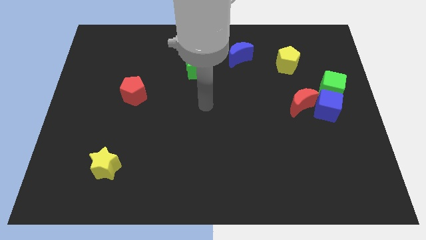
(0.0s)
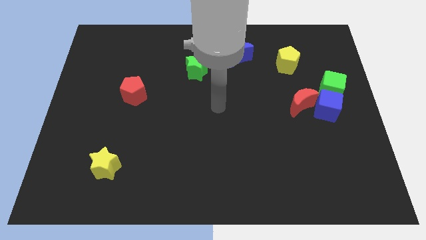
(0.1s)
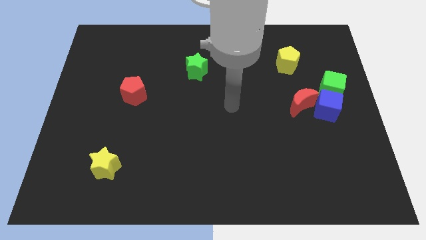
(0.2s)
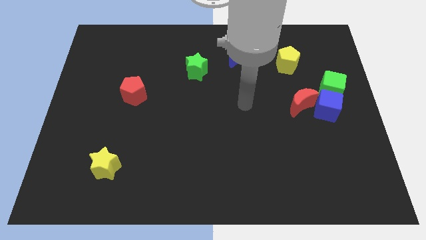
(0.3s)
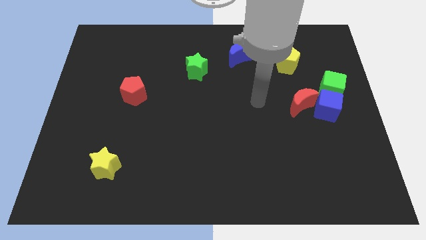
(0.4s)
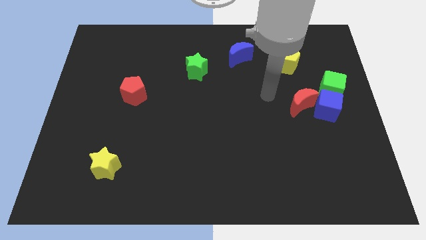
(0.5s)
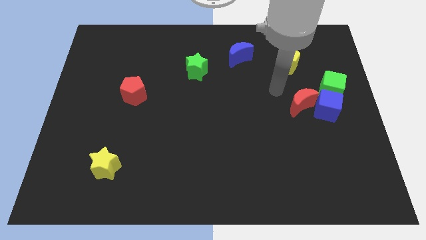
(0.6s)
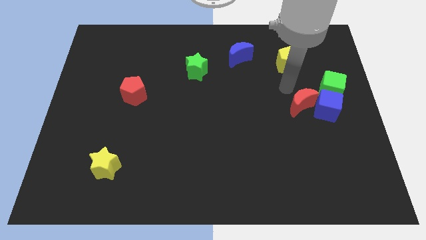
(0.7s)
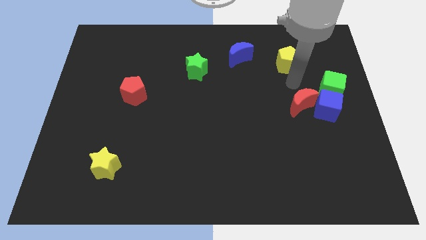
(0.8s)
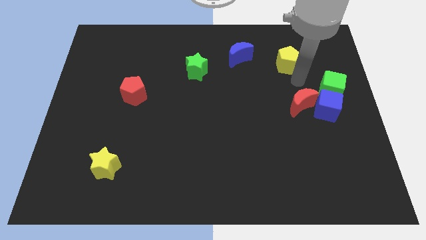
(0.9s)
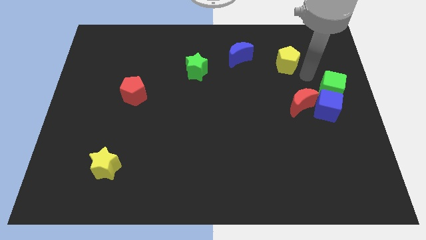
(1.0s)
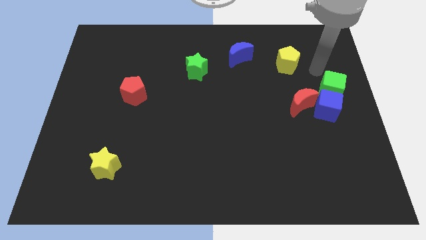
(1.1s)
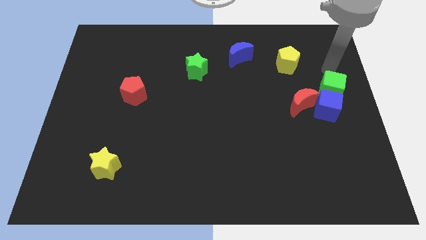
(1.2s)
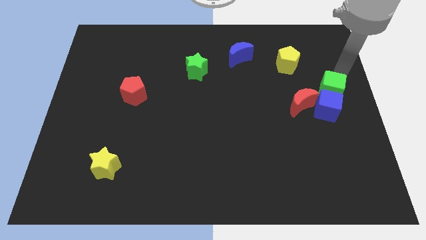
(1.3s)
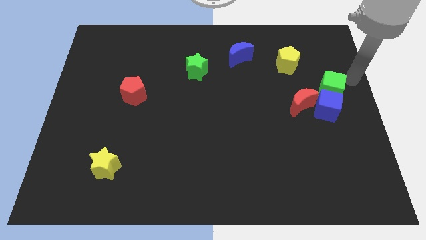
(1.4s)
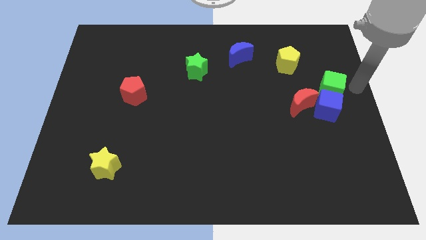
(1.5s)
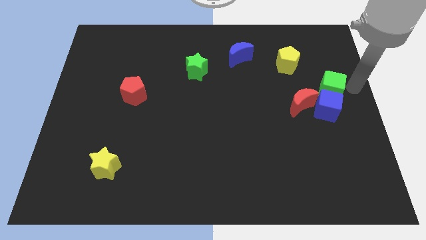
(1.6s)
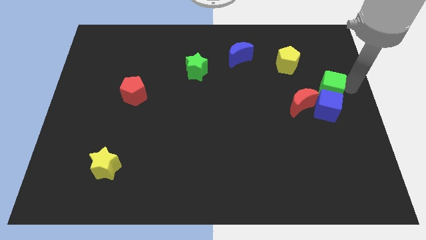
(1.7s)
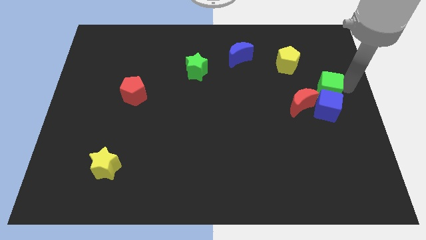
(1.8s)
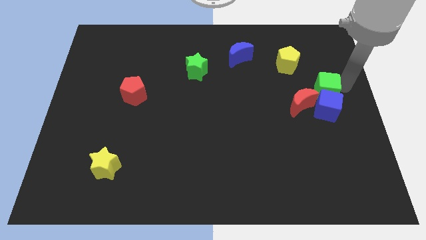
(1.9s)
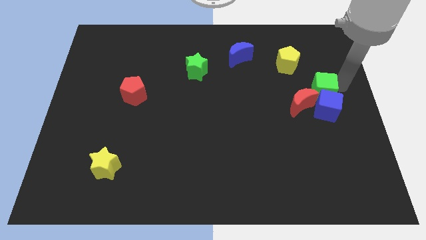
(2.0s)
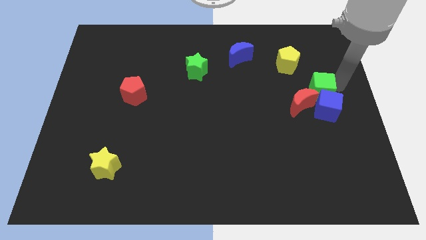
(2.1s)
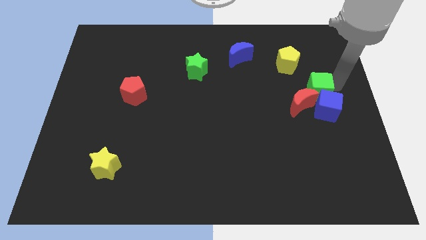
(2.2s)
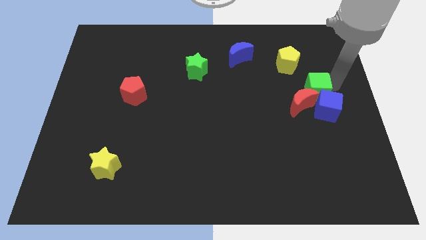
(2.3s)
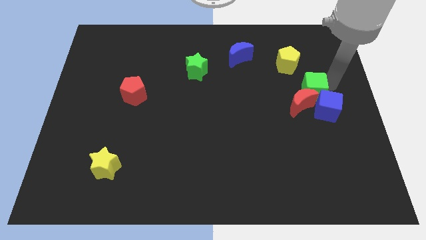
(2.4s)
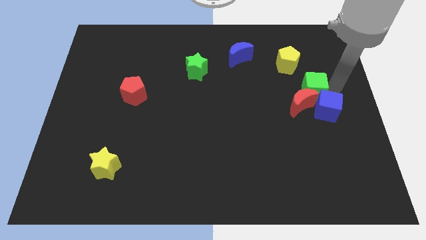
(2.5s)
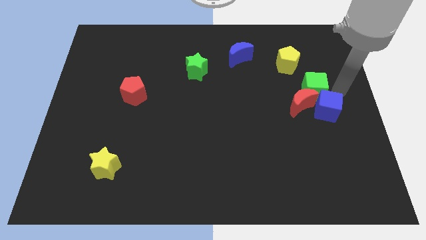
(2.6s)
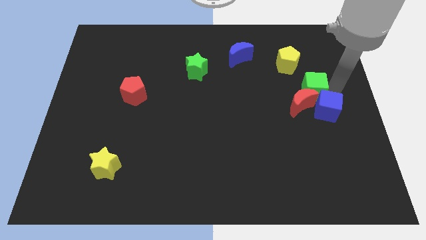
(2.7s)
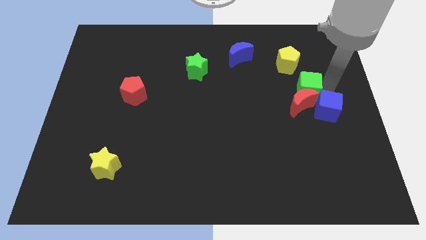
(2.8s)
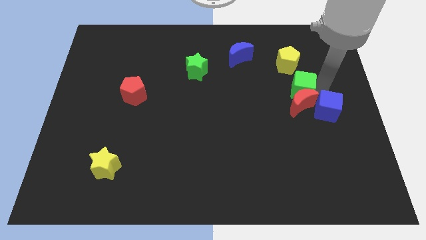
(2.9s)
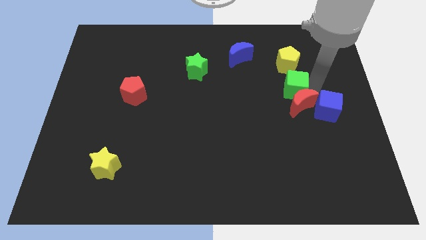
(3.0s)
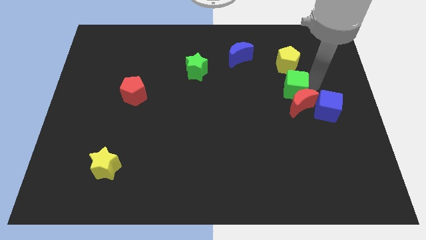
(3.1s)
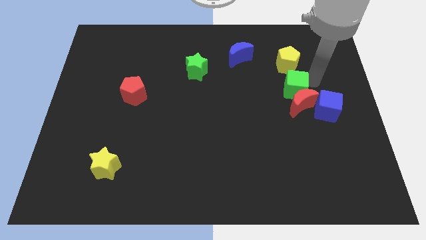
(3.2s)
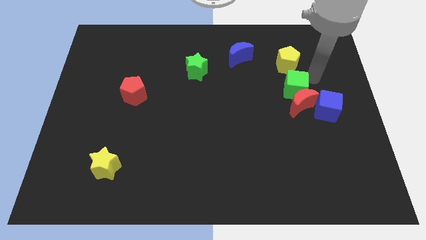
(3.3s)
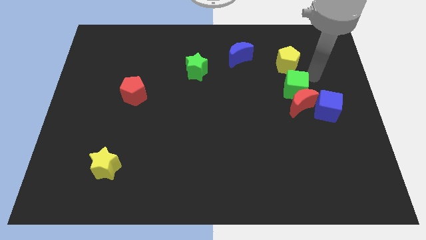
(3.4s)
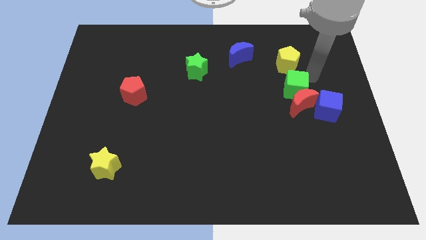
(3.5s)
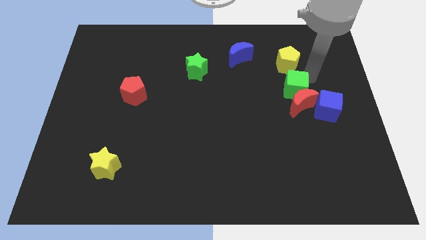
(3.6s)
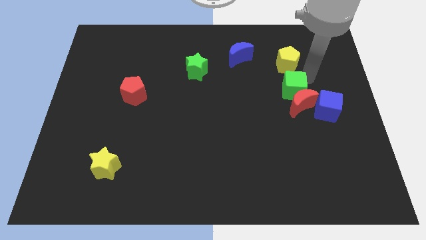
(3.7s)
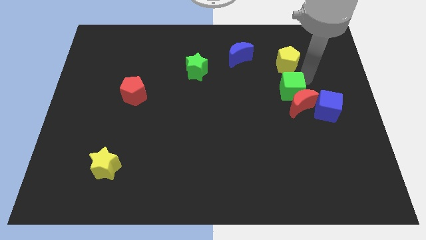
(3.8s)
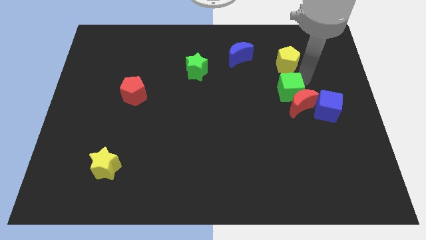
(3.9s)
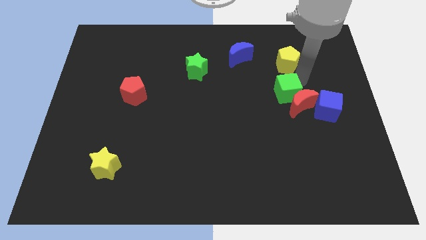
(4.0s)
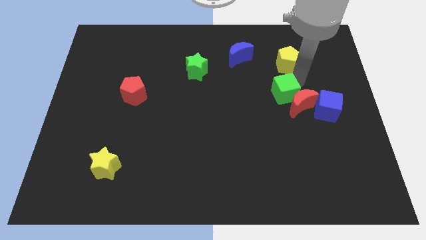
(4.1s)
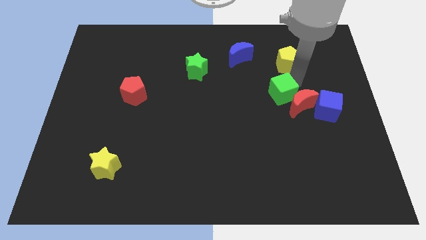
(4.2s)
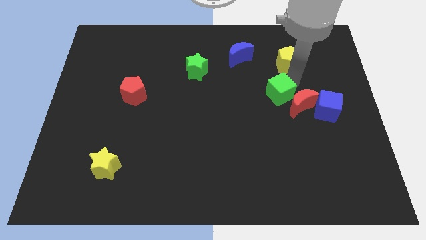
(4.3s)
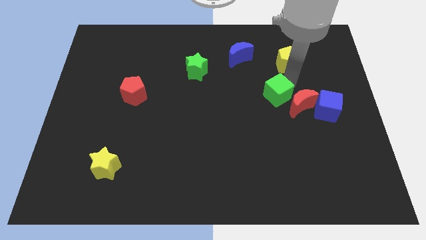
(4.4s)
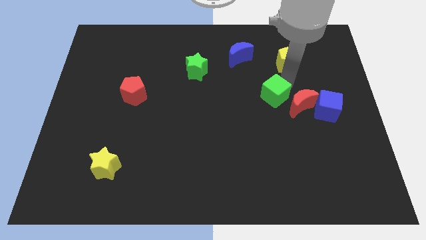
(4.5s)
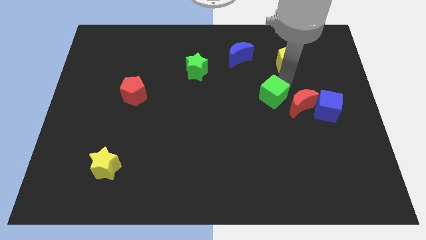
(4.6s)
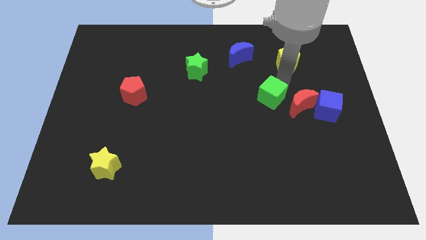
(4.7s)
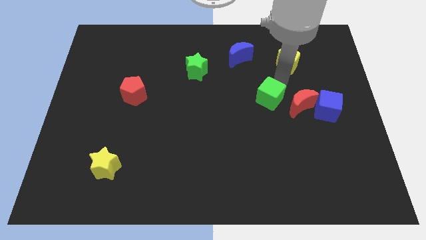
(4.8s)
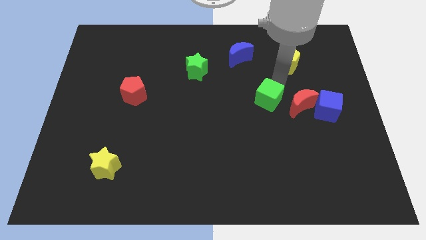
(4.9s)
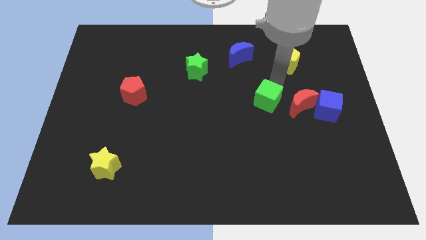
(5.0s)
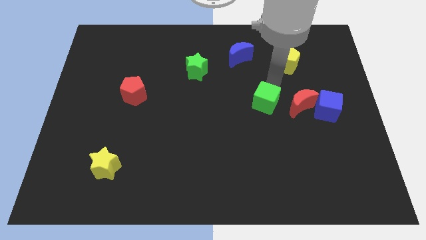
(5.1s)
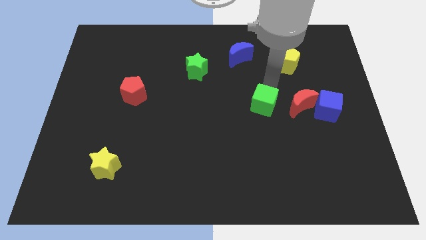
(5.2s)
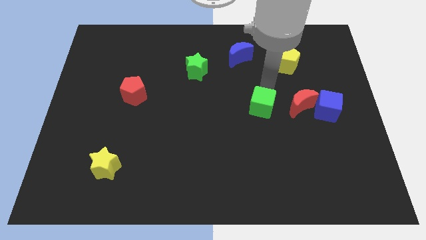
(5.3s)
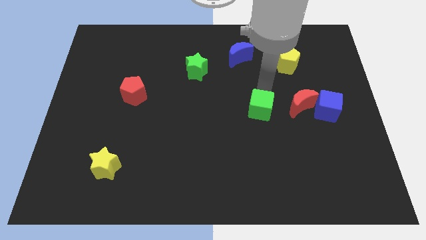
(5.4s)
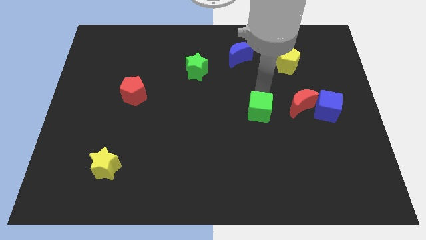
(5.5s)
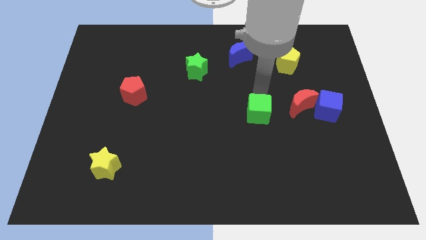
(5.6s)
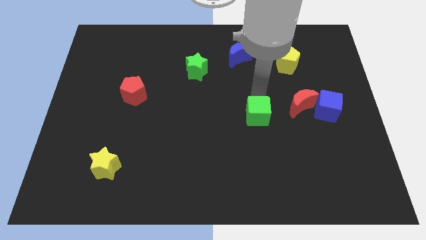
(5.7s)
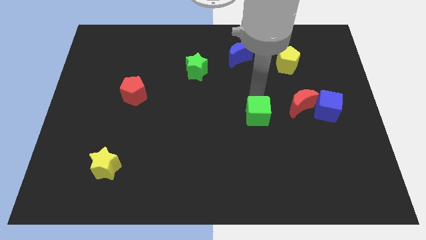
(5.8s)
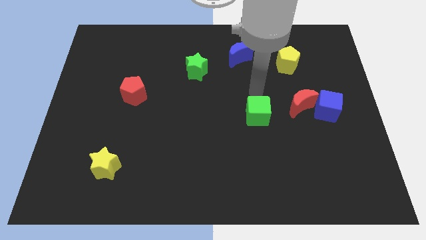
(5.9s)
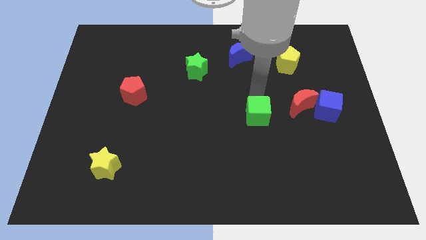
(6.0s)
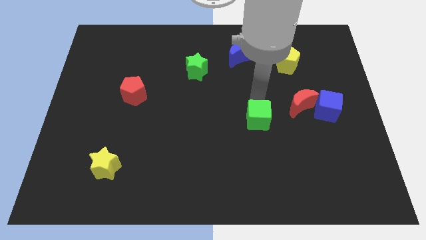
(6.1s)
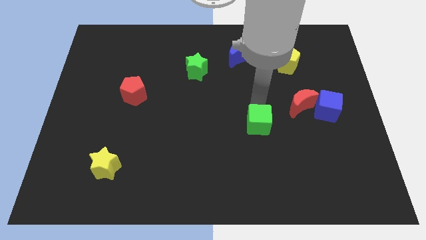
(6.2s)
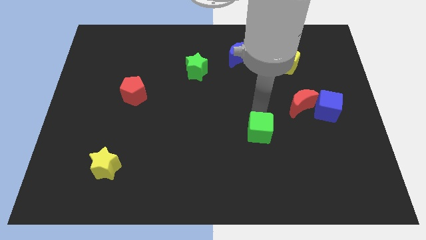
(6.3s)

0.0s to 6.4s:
move the green cube down and to the left diagonally

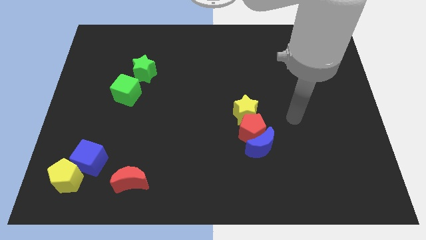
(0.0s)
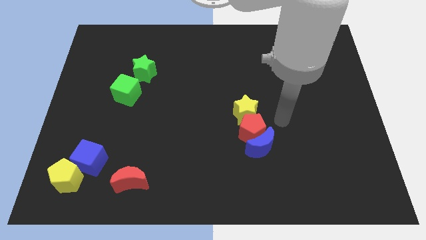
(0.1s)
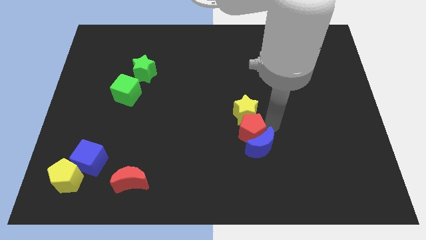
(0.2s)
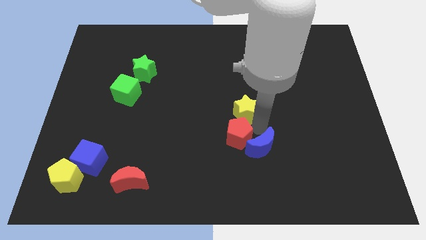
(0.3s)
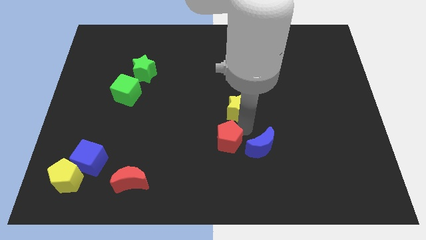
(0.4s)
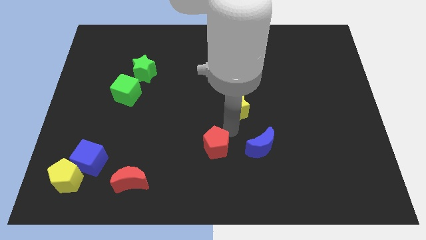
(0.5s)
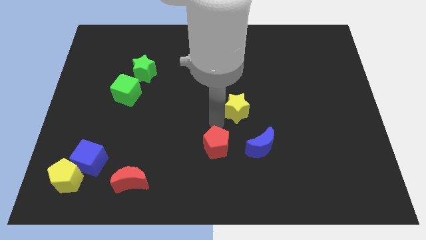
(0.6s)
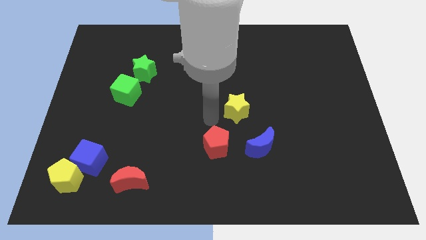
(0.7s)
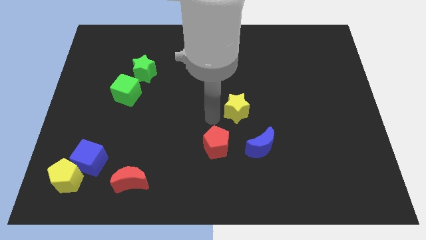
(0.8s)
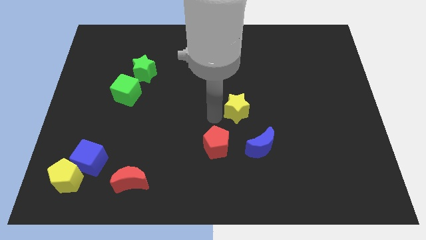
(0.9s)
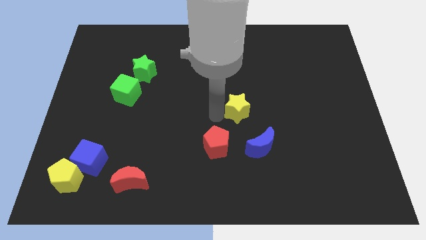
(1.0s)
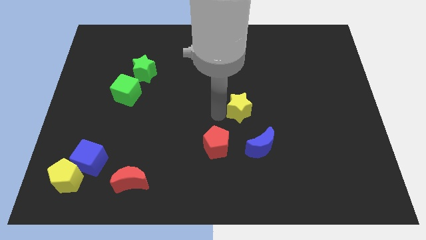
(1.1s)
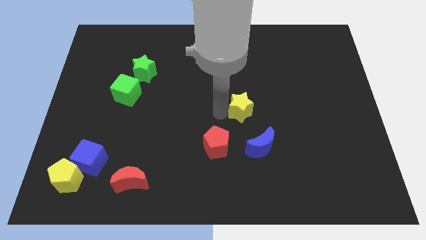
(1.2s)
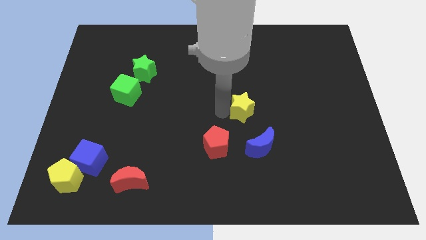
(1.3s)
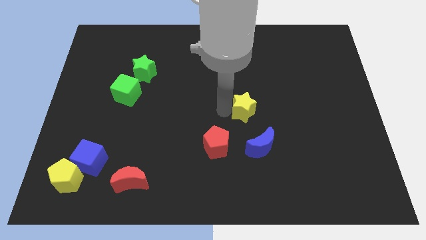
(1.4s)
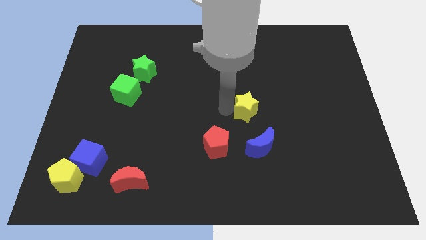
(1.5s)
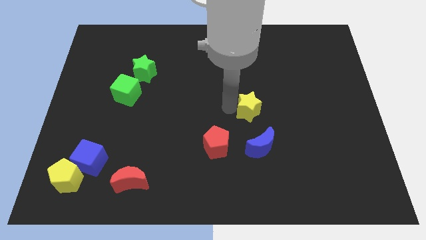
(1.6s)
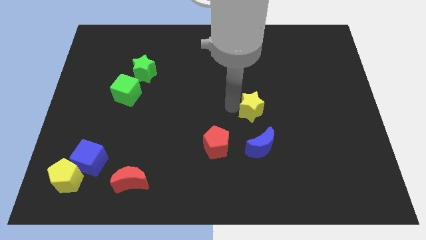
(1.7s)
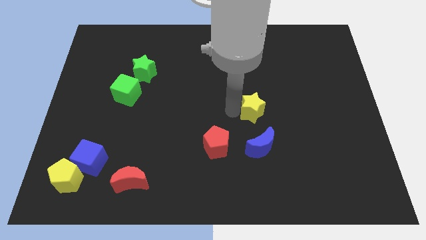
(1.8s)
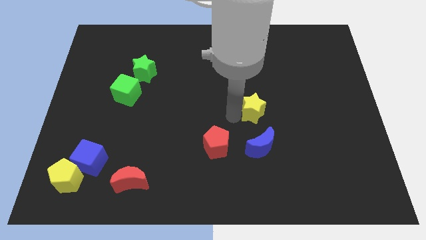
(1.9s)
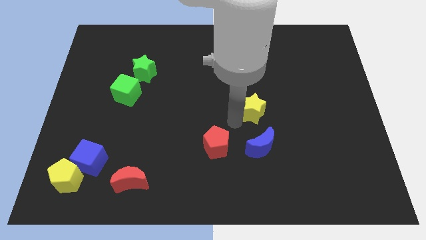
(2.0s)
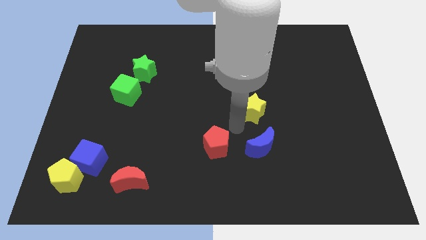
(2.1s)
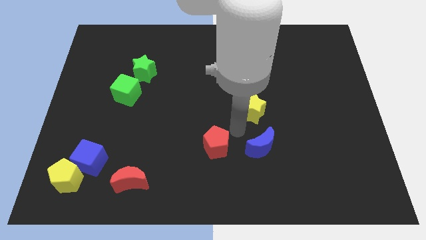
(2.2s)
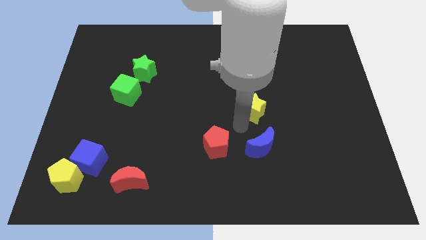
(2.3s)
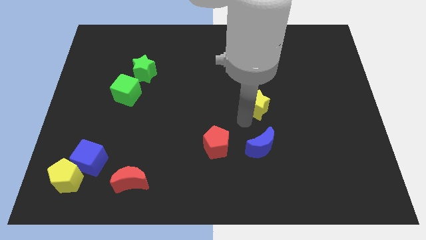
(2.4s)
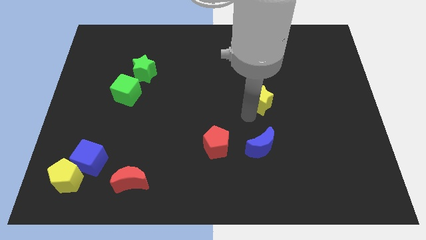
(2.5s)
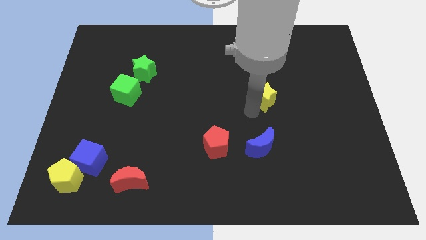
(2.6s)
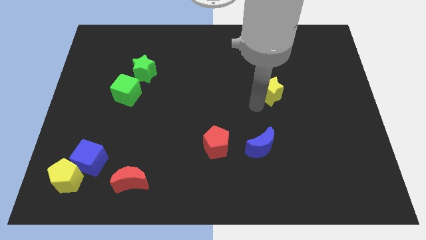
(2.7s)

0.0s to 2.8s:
move the yellow star slightly upwards and then to the right
